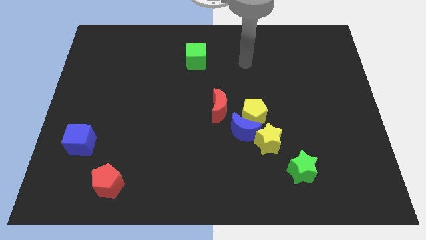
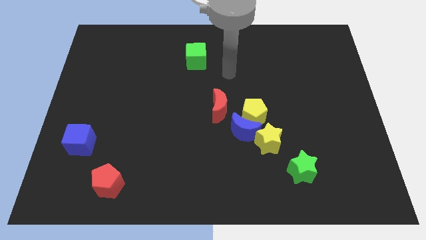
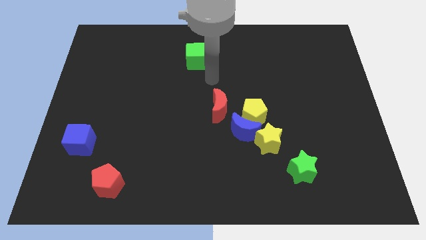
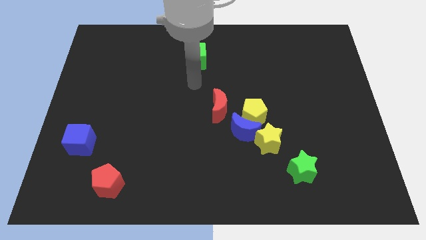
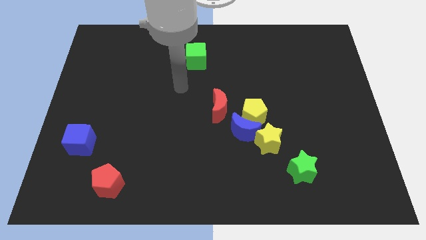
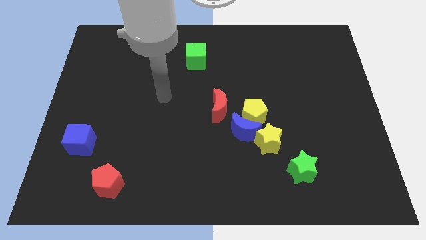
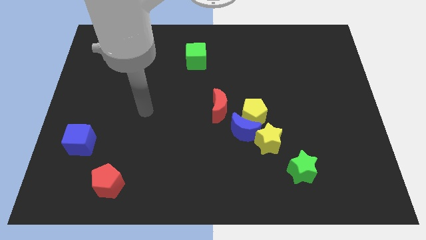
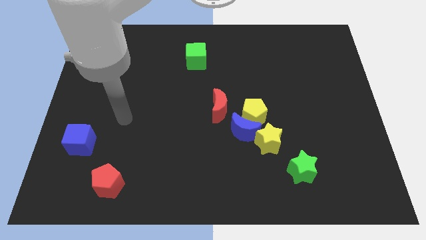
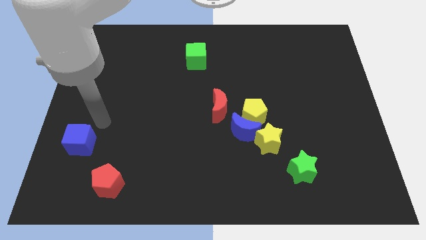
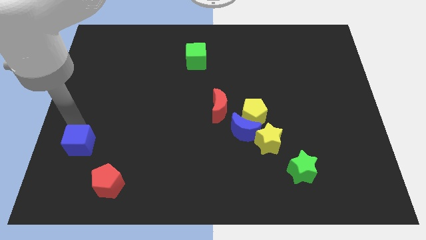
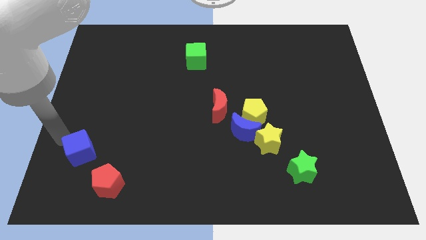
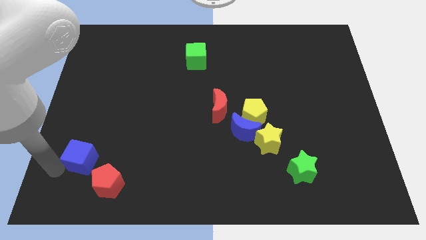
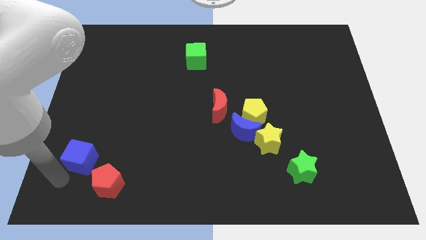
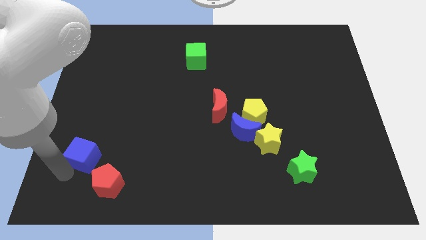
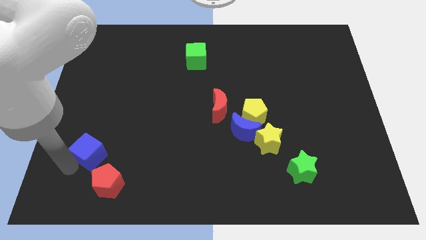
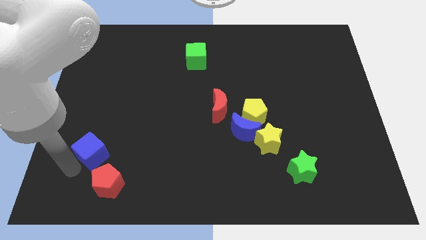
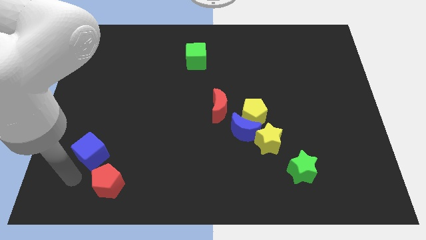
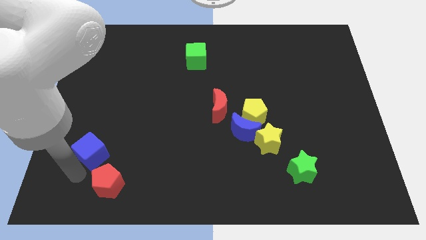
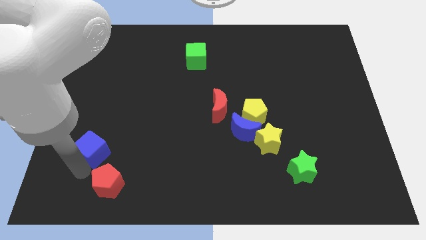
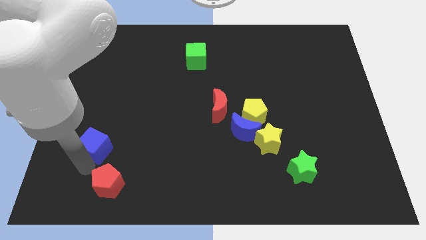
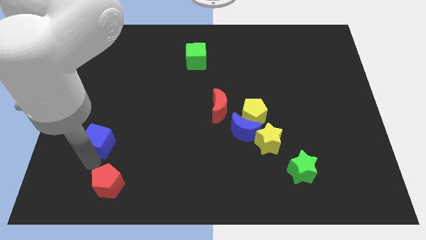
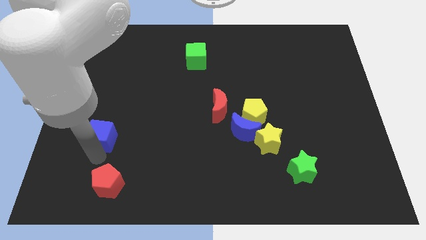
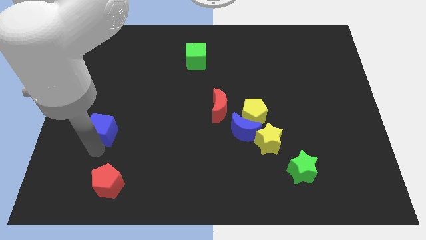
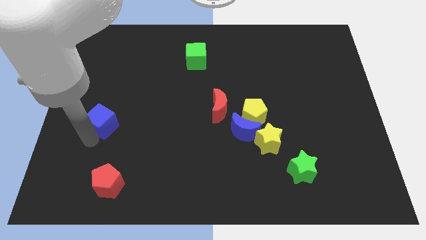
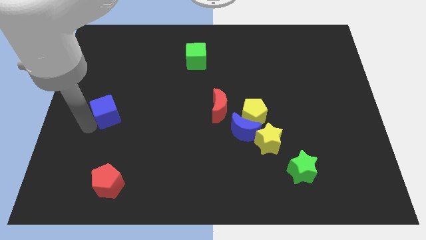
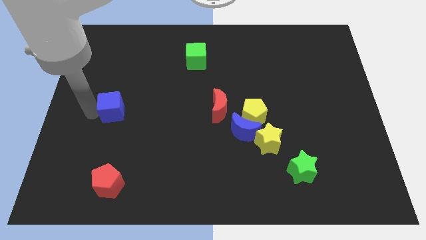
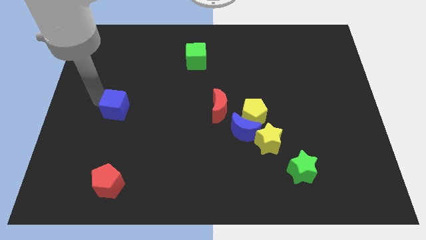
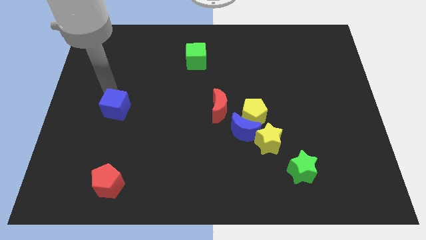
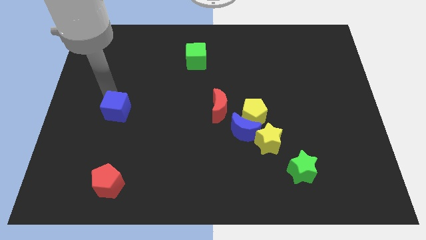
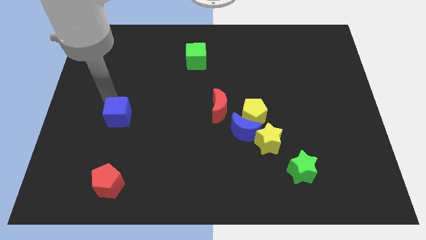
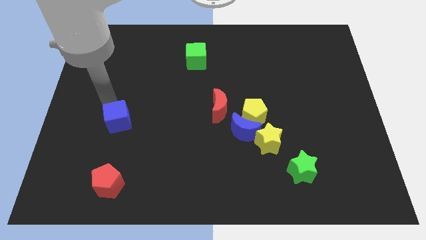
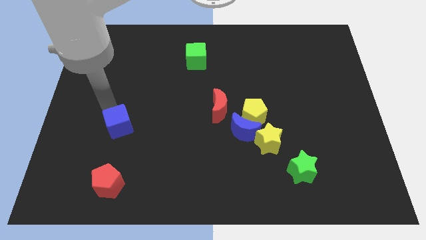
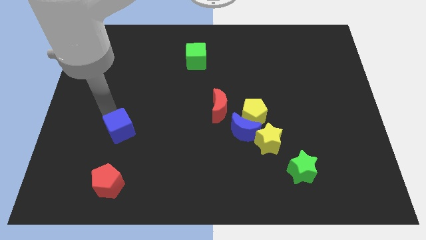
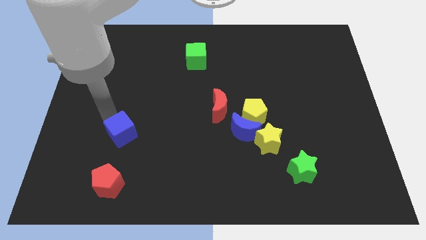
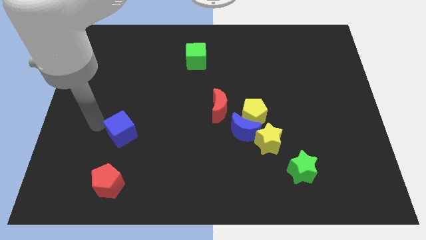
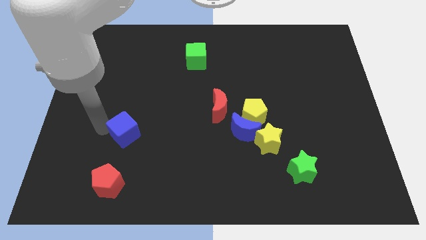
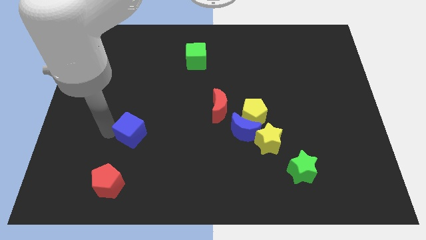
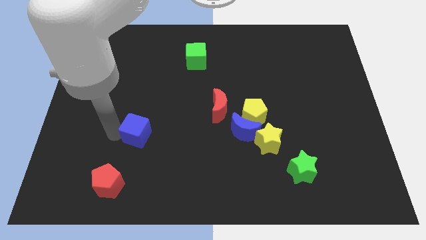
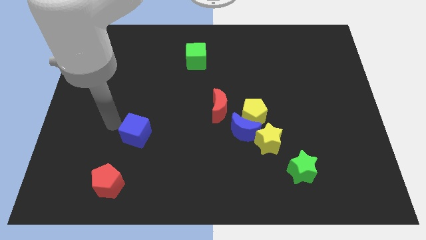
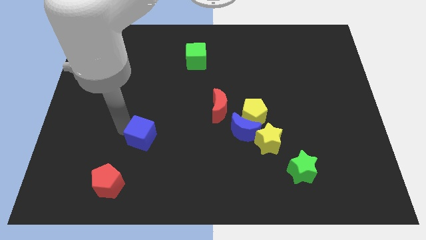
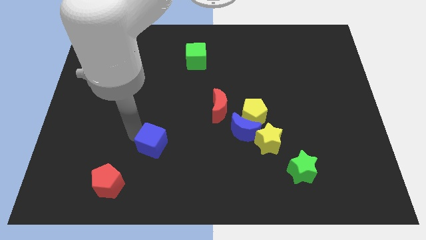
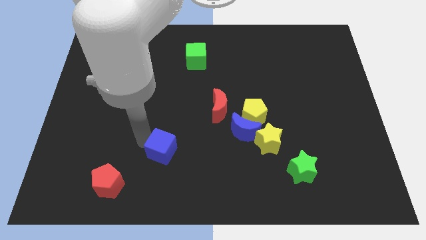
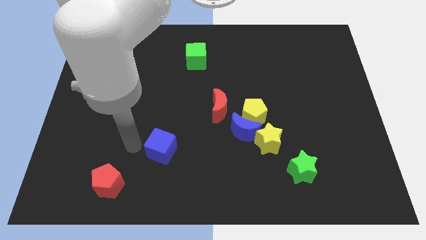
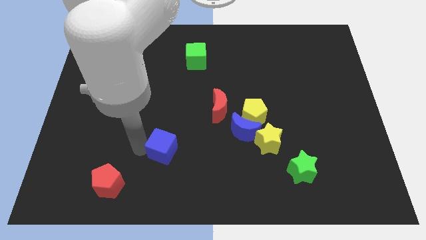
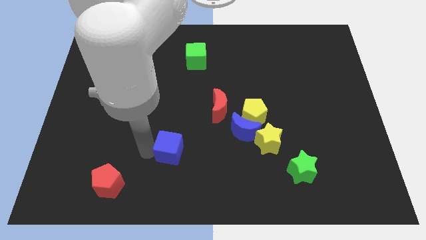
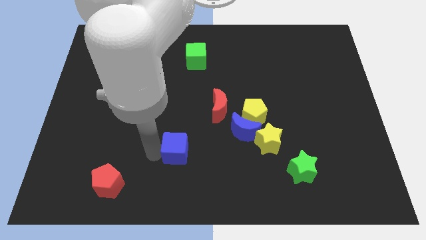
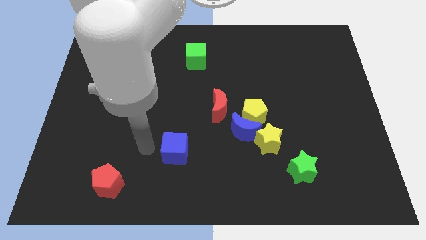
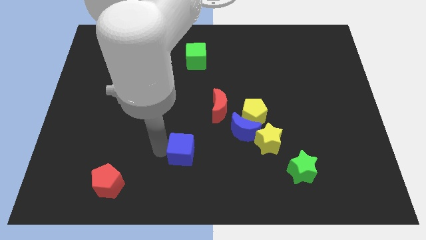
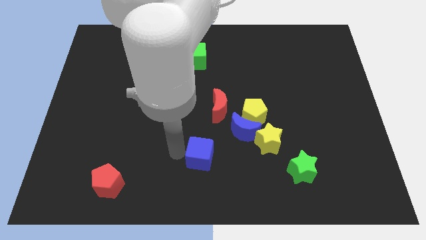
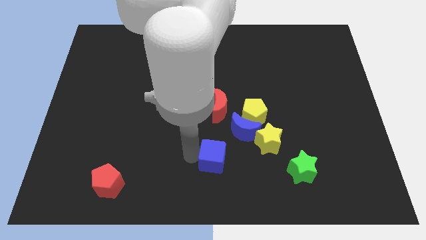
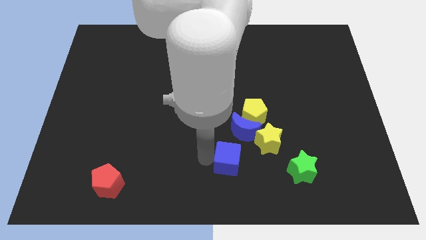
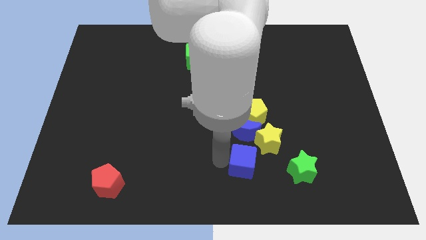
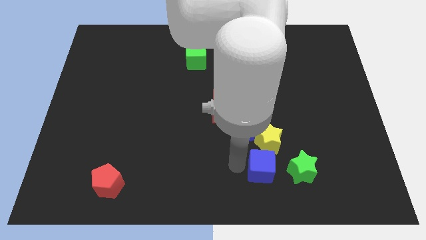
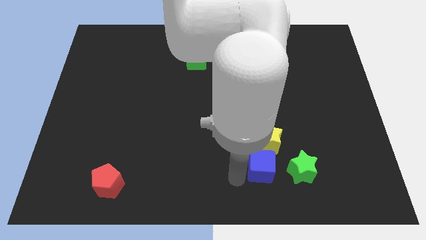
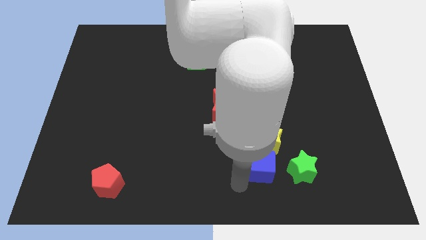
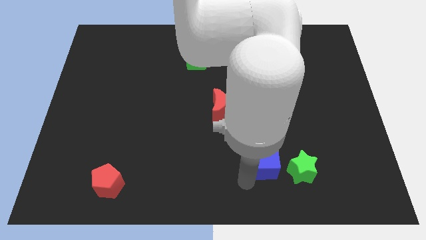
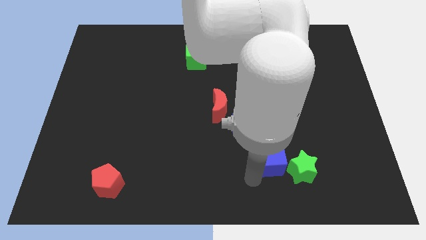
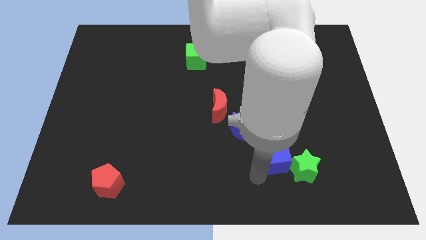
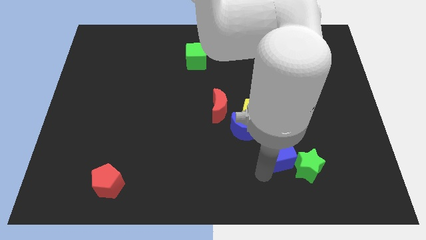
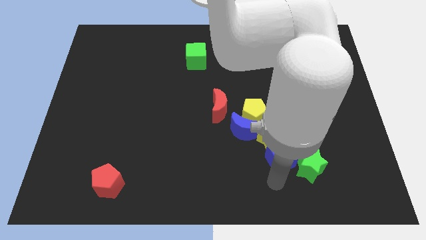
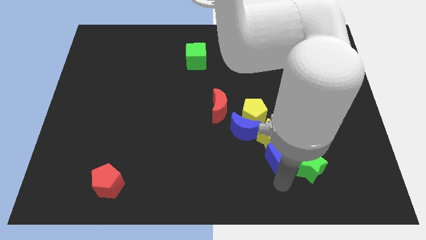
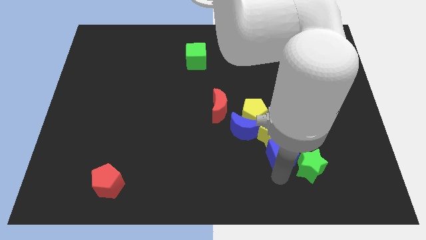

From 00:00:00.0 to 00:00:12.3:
put the blue cube diagonally down and to the right of the yellow pentagon
